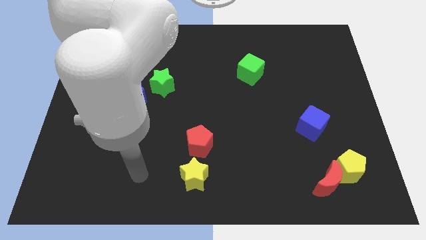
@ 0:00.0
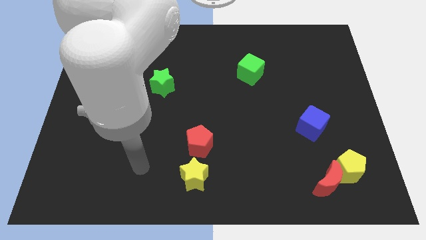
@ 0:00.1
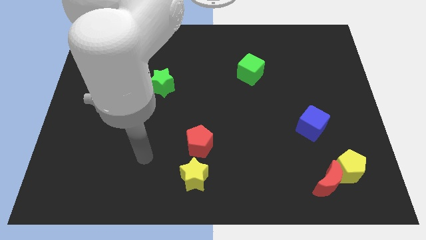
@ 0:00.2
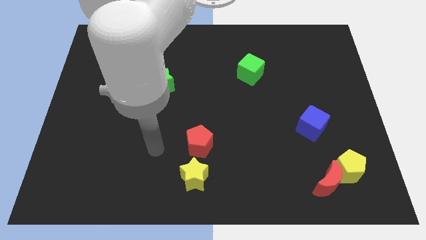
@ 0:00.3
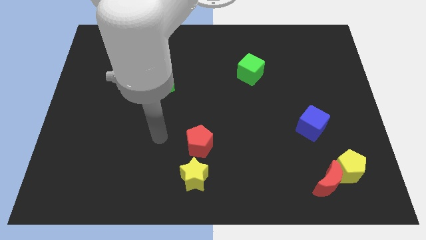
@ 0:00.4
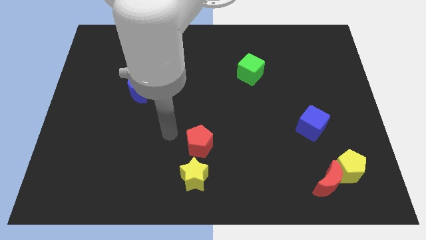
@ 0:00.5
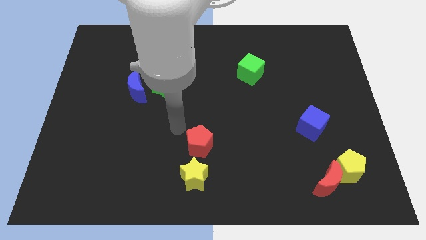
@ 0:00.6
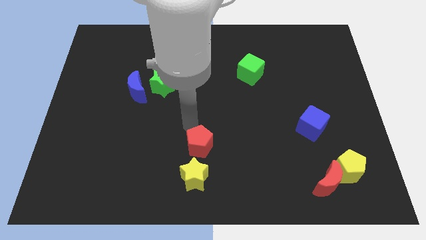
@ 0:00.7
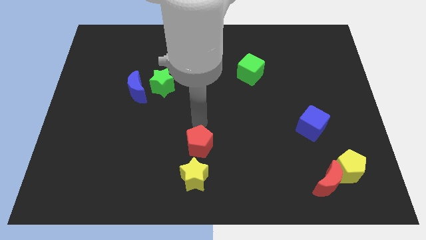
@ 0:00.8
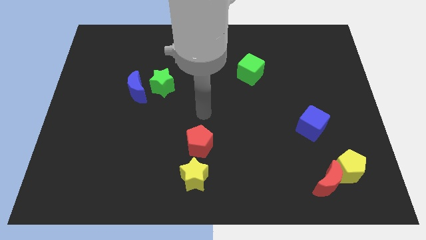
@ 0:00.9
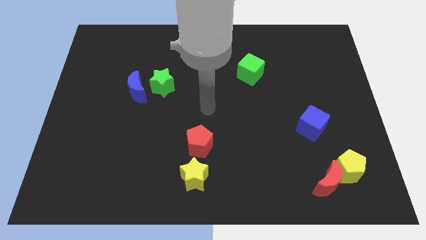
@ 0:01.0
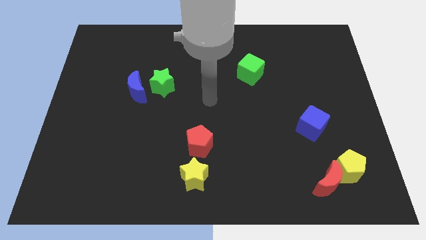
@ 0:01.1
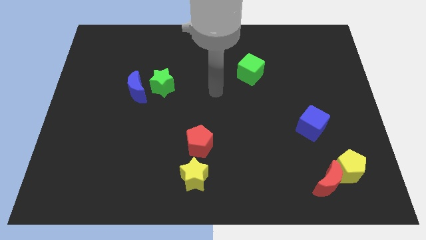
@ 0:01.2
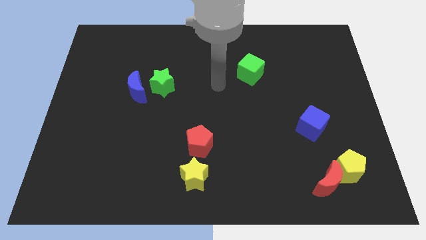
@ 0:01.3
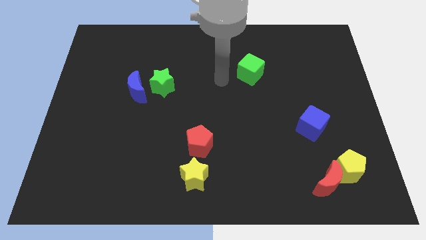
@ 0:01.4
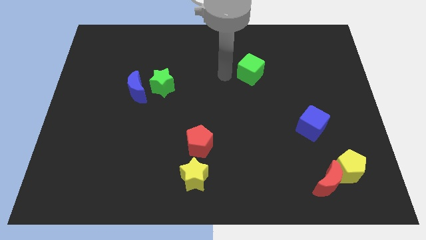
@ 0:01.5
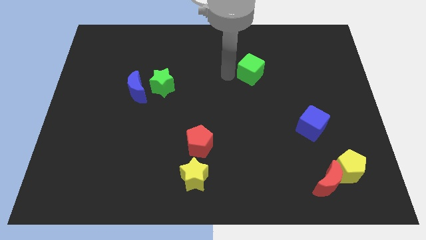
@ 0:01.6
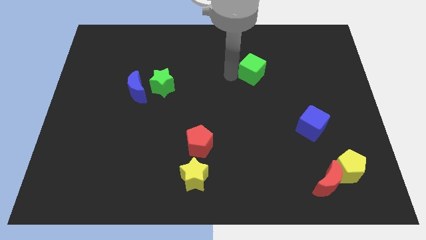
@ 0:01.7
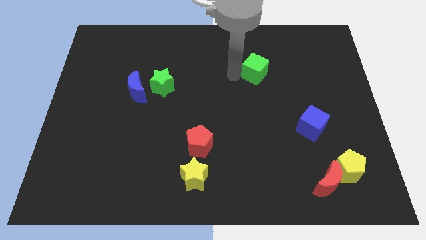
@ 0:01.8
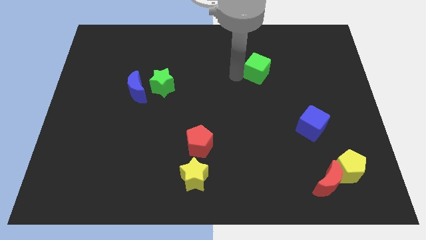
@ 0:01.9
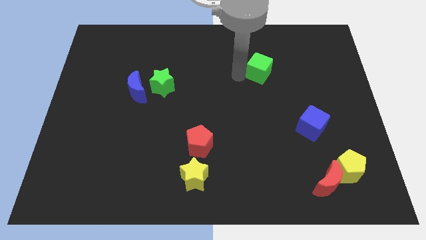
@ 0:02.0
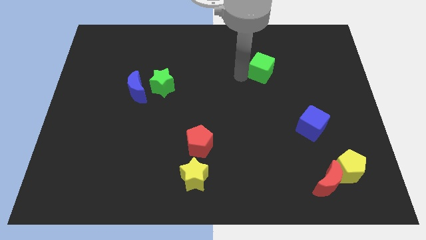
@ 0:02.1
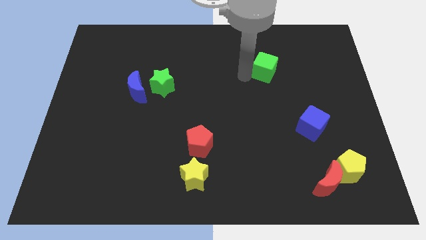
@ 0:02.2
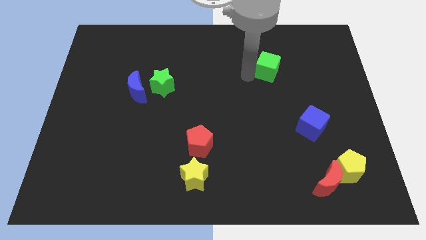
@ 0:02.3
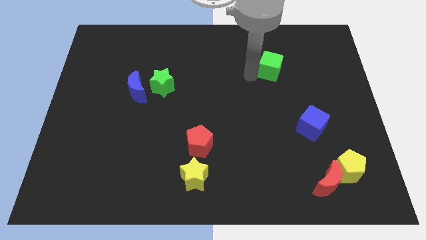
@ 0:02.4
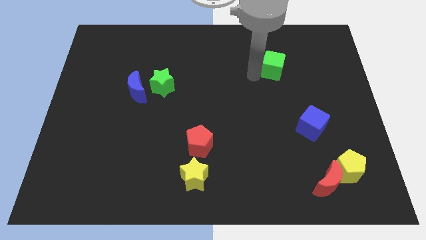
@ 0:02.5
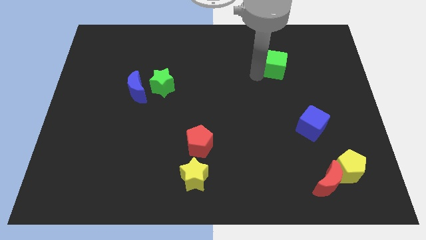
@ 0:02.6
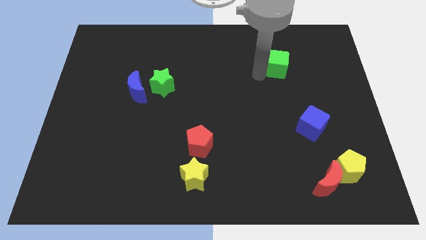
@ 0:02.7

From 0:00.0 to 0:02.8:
push the green cube right slightly

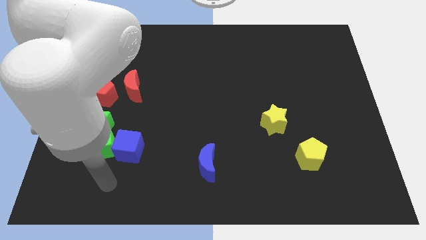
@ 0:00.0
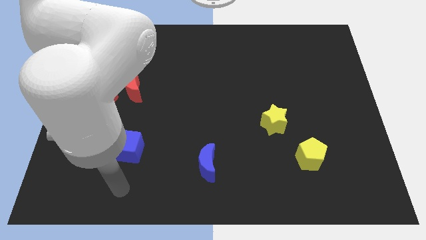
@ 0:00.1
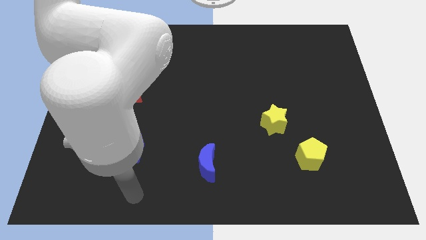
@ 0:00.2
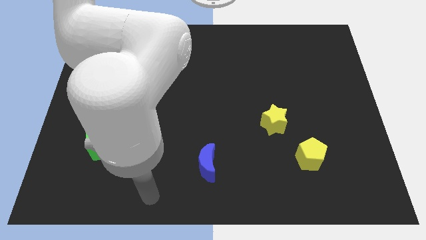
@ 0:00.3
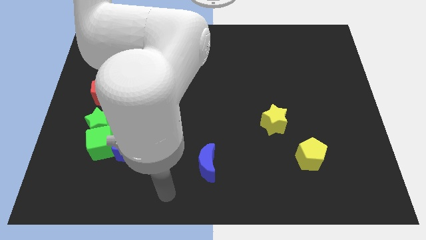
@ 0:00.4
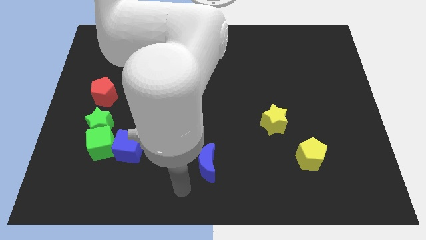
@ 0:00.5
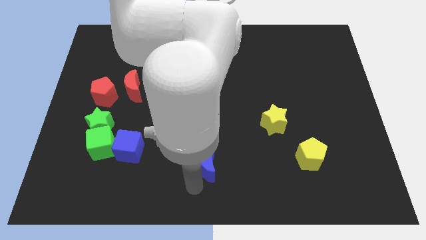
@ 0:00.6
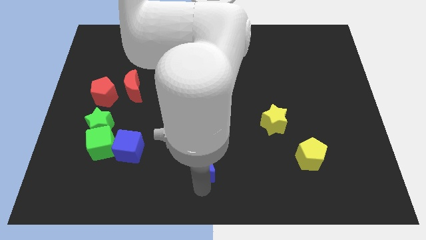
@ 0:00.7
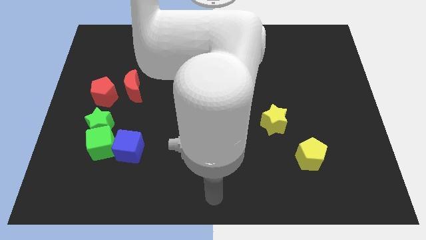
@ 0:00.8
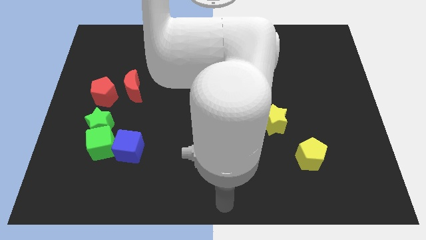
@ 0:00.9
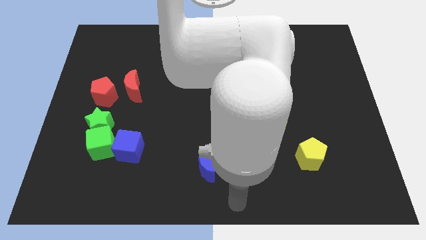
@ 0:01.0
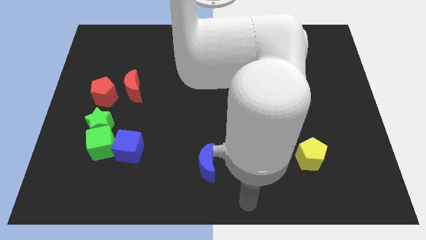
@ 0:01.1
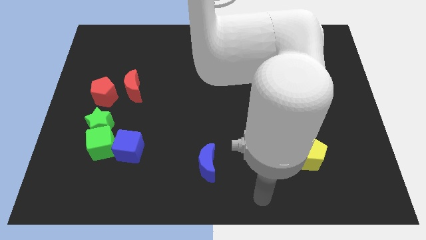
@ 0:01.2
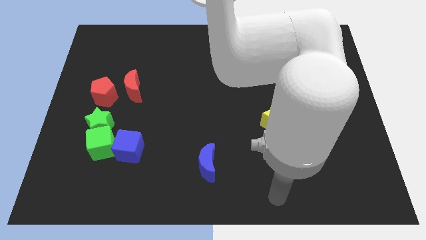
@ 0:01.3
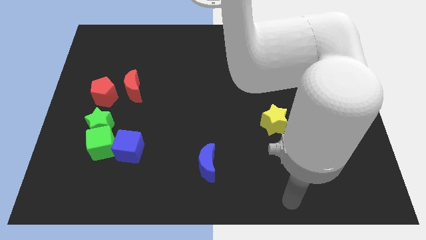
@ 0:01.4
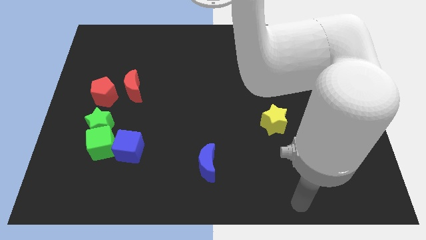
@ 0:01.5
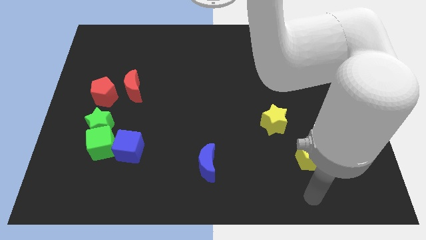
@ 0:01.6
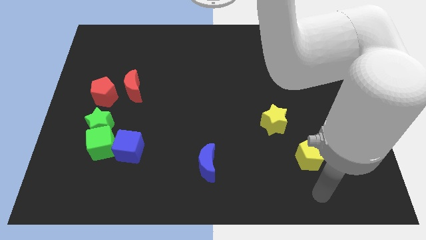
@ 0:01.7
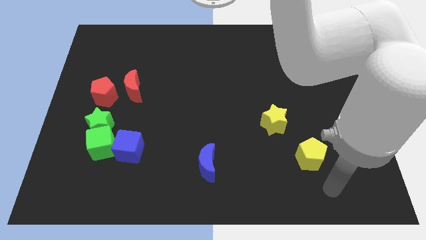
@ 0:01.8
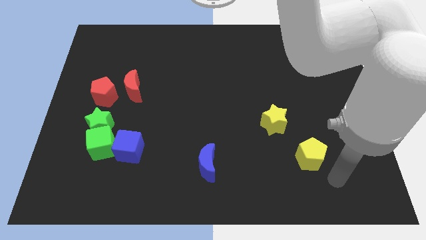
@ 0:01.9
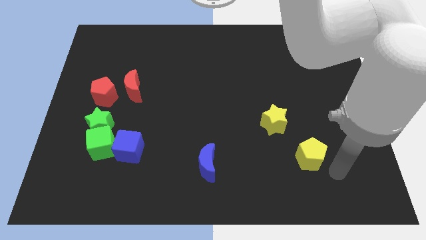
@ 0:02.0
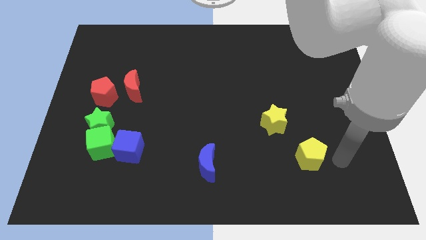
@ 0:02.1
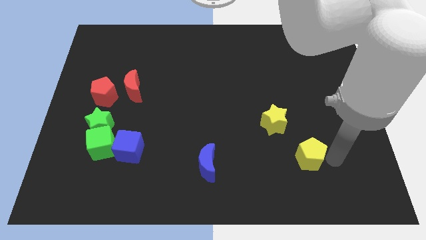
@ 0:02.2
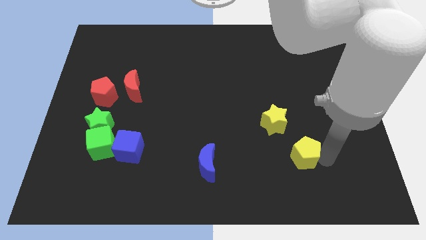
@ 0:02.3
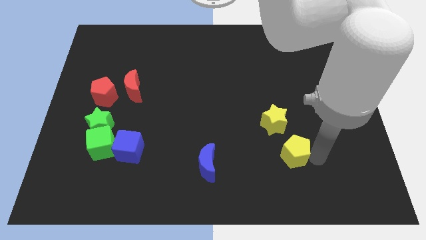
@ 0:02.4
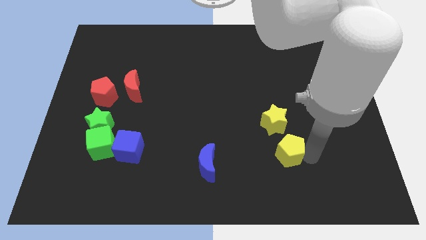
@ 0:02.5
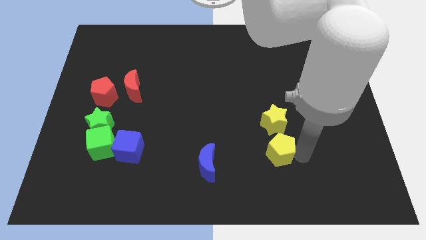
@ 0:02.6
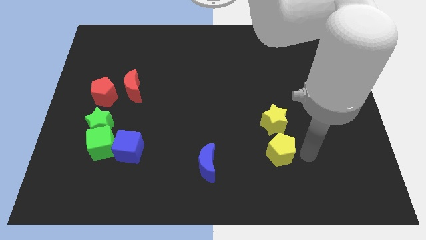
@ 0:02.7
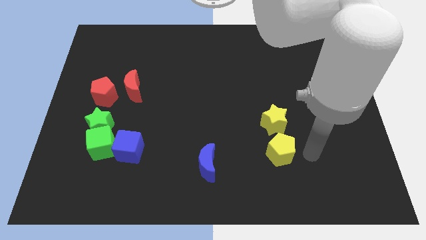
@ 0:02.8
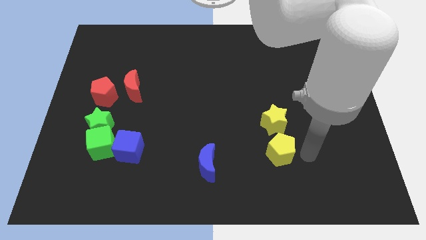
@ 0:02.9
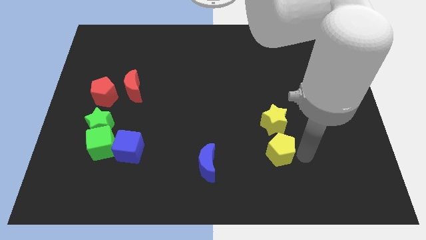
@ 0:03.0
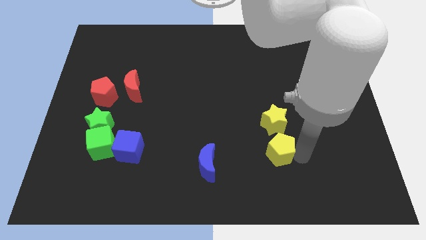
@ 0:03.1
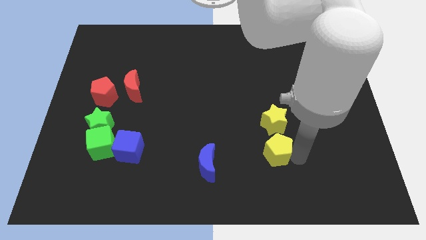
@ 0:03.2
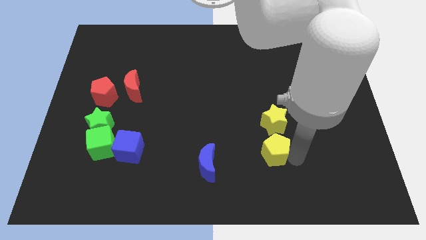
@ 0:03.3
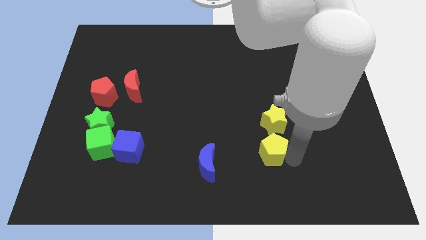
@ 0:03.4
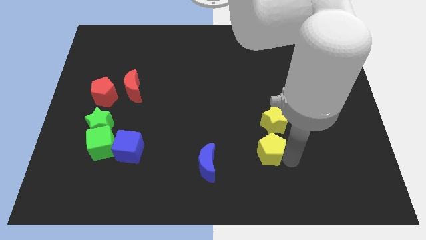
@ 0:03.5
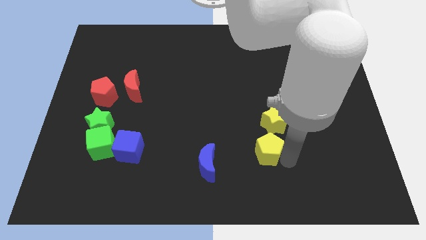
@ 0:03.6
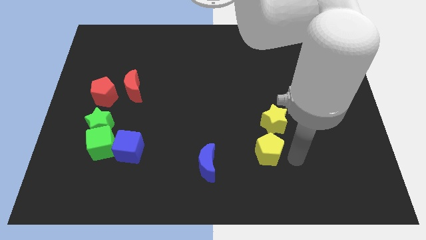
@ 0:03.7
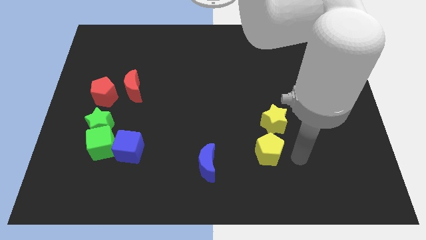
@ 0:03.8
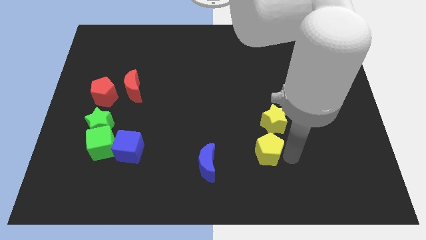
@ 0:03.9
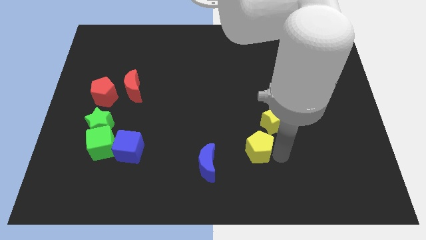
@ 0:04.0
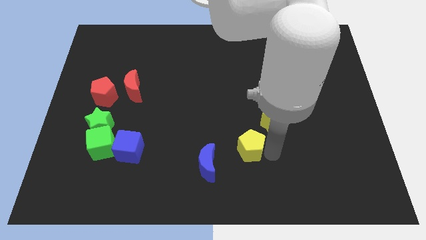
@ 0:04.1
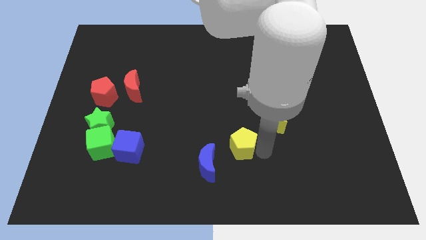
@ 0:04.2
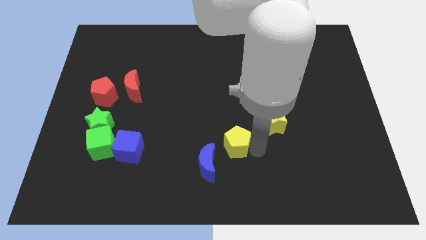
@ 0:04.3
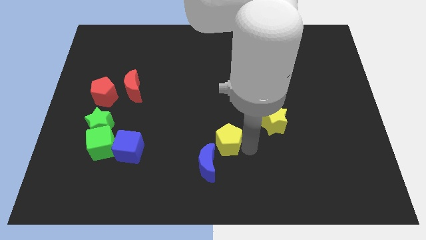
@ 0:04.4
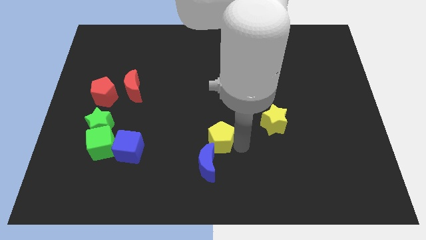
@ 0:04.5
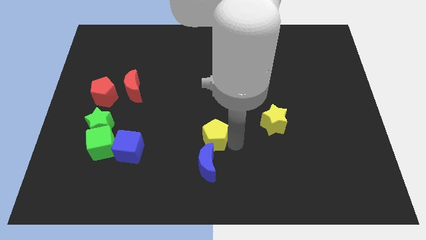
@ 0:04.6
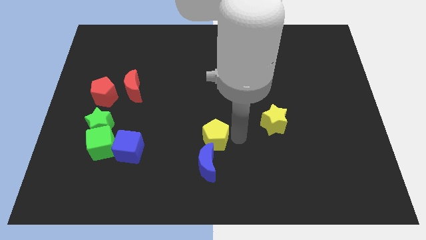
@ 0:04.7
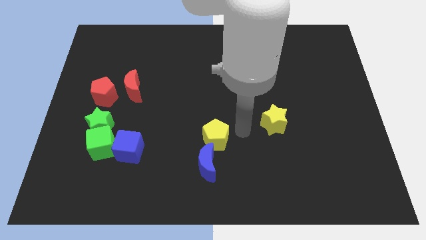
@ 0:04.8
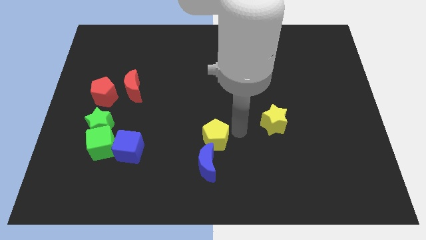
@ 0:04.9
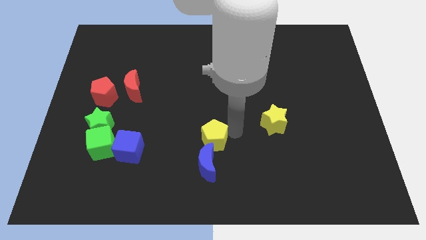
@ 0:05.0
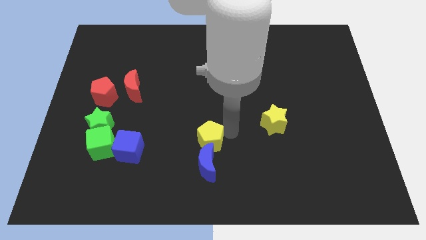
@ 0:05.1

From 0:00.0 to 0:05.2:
push the yellow pentagon to the left
